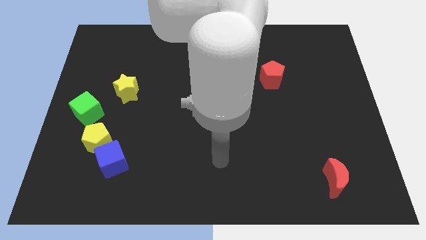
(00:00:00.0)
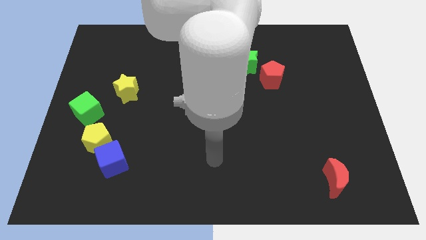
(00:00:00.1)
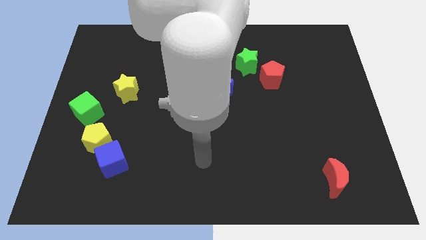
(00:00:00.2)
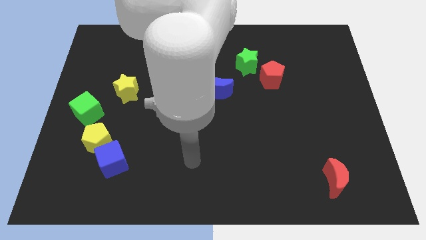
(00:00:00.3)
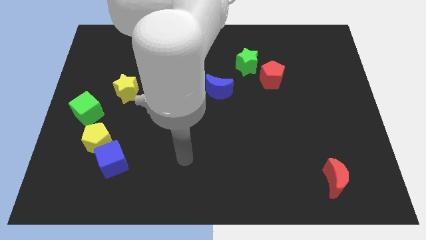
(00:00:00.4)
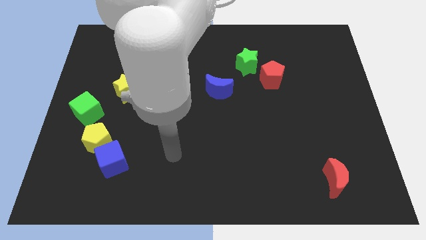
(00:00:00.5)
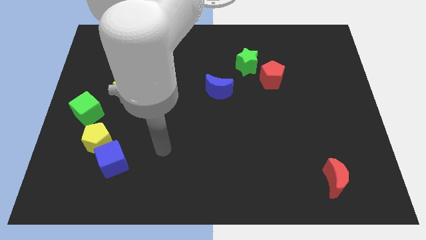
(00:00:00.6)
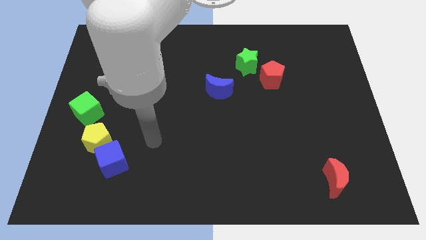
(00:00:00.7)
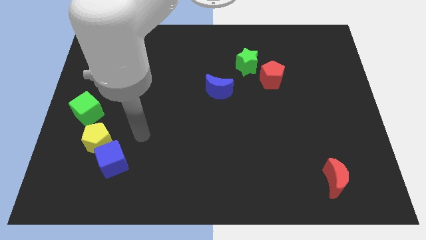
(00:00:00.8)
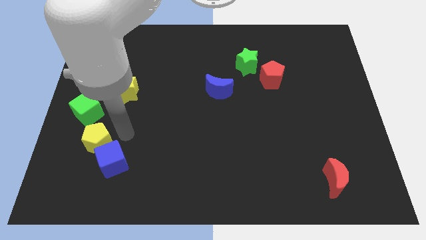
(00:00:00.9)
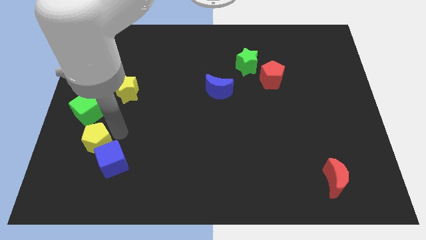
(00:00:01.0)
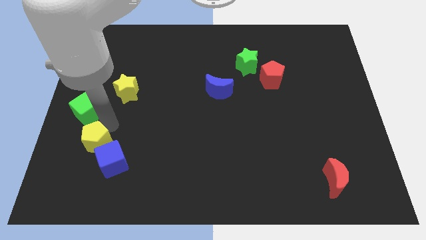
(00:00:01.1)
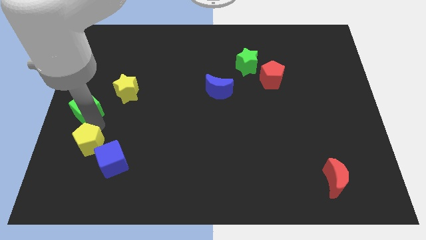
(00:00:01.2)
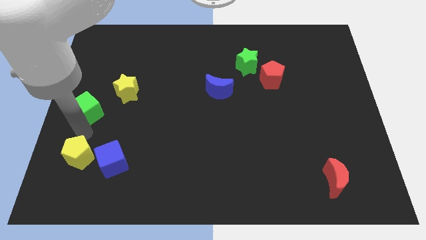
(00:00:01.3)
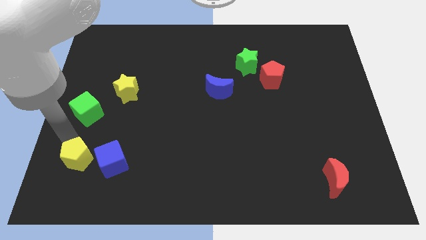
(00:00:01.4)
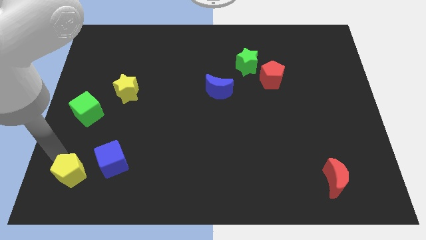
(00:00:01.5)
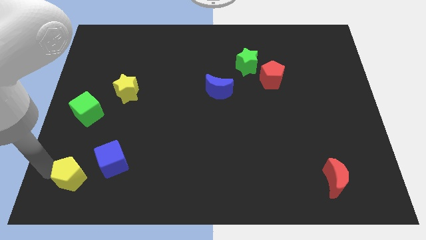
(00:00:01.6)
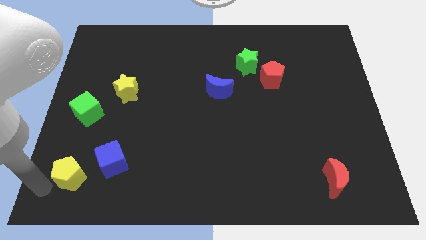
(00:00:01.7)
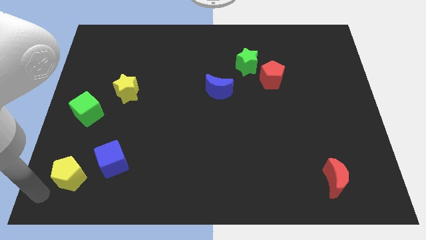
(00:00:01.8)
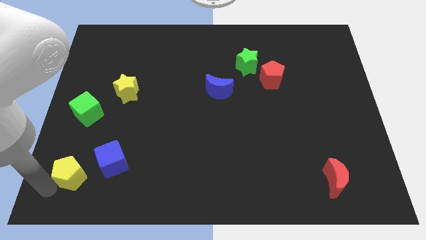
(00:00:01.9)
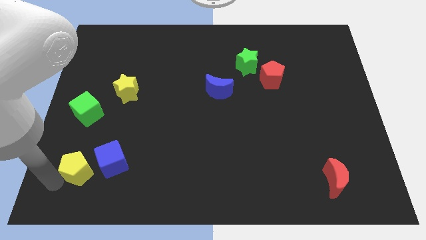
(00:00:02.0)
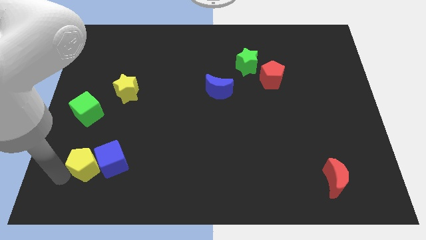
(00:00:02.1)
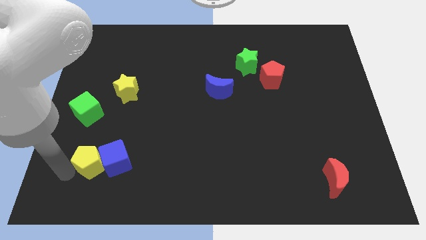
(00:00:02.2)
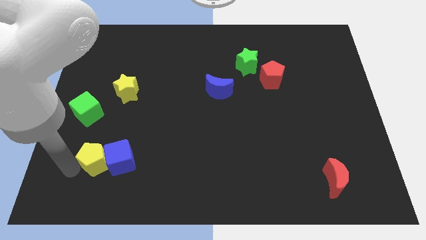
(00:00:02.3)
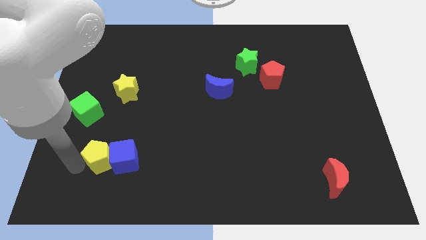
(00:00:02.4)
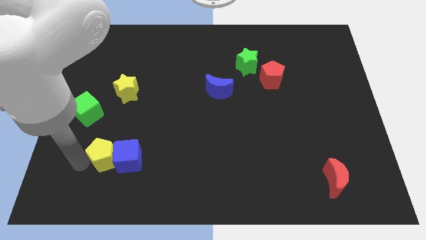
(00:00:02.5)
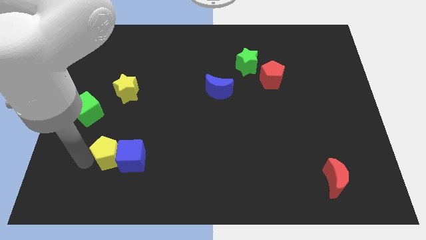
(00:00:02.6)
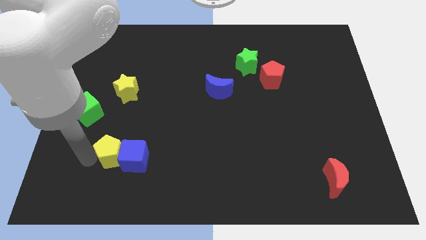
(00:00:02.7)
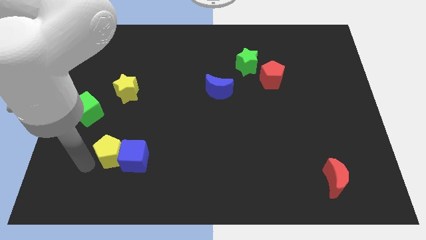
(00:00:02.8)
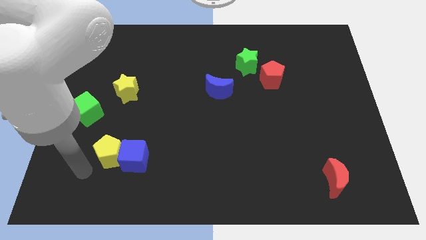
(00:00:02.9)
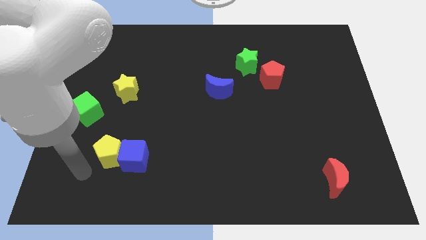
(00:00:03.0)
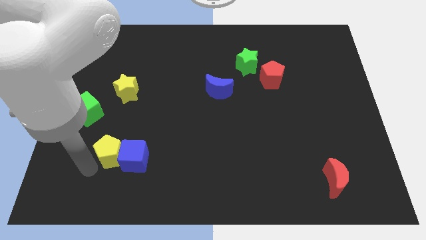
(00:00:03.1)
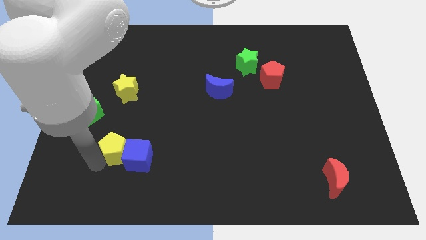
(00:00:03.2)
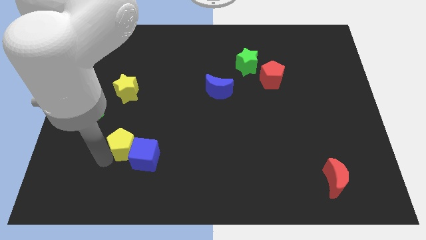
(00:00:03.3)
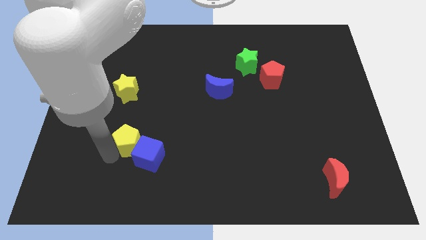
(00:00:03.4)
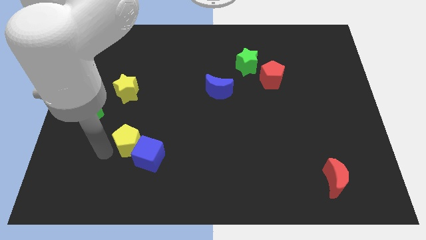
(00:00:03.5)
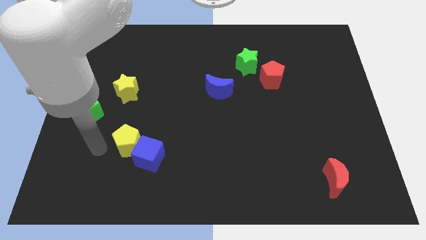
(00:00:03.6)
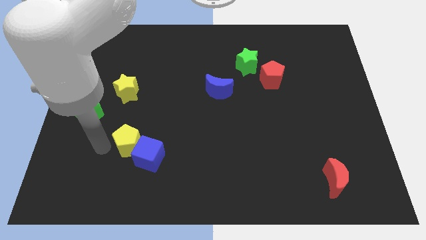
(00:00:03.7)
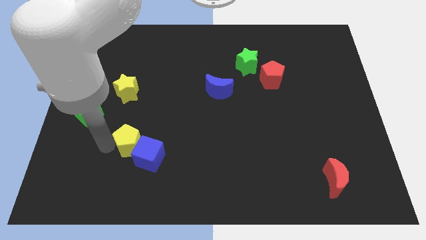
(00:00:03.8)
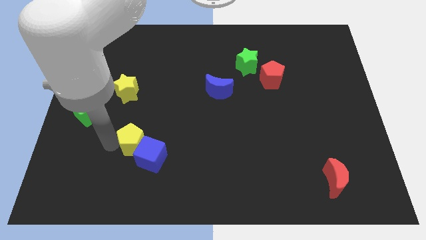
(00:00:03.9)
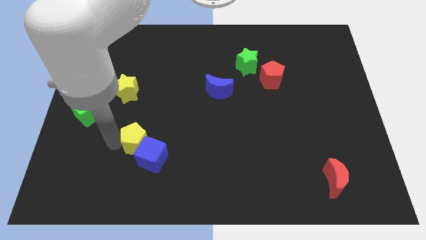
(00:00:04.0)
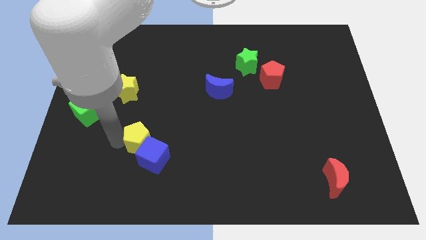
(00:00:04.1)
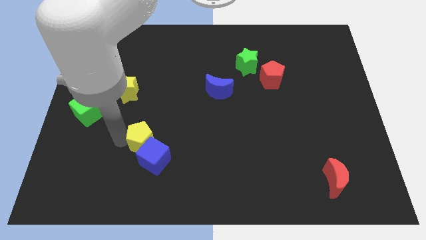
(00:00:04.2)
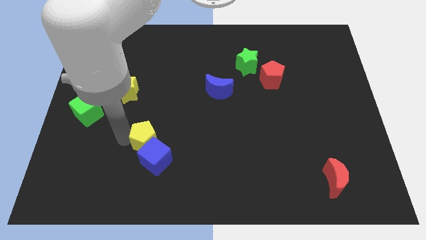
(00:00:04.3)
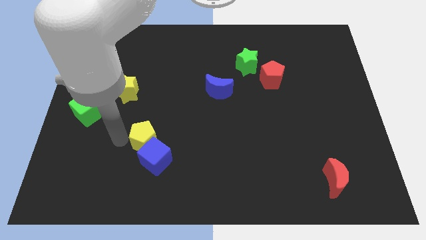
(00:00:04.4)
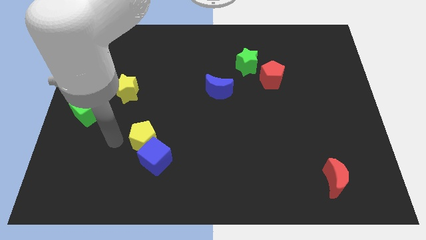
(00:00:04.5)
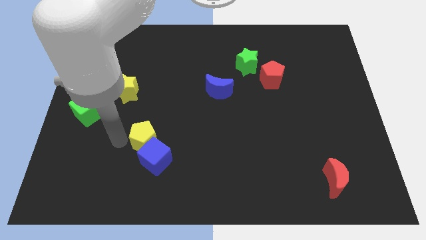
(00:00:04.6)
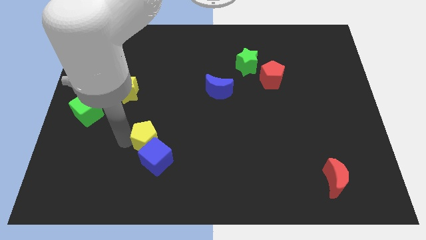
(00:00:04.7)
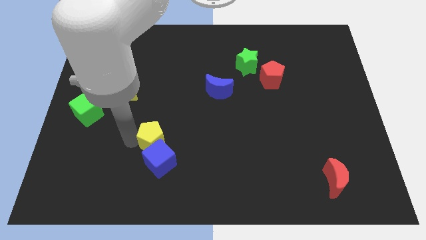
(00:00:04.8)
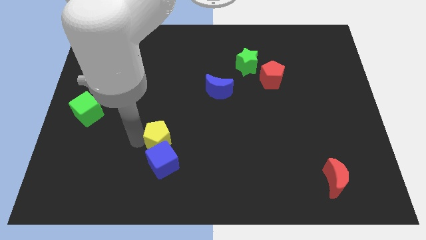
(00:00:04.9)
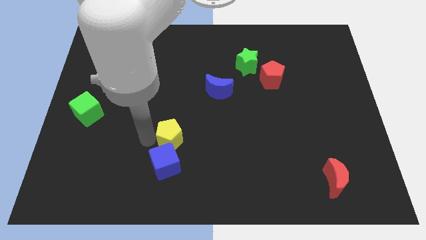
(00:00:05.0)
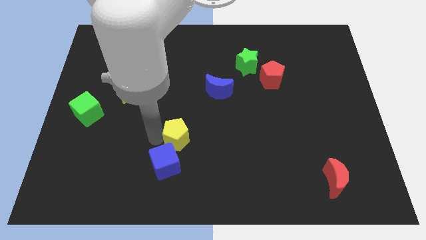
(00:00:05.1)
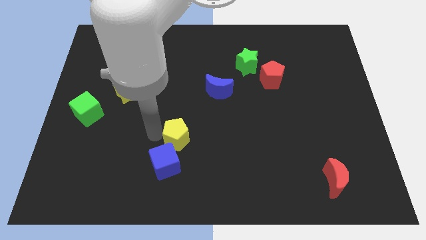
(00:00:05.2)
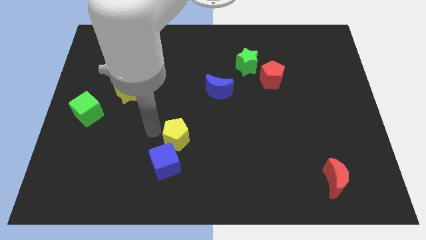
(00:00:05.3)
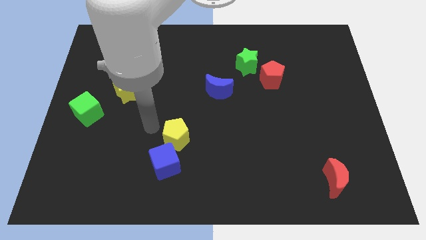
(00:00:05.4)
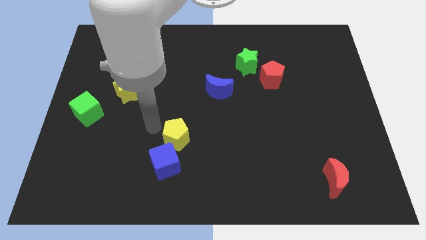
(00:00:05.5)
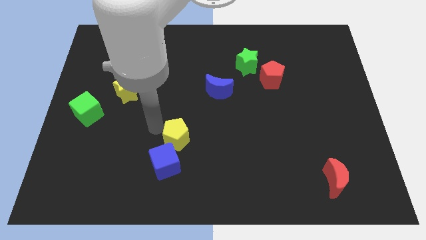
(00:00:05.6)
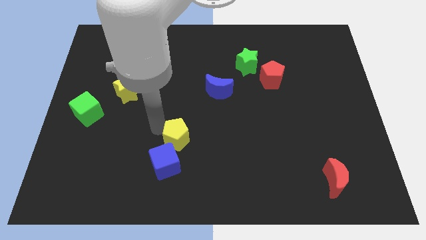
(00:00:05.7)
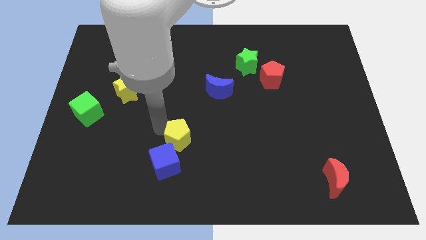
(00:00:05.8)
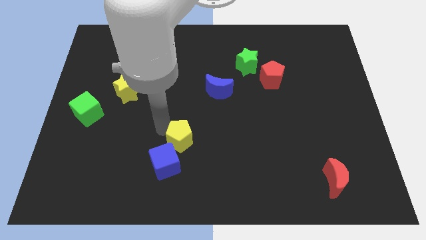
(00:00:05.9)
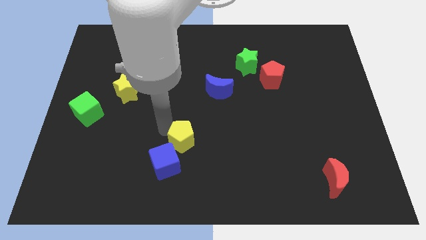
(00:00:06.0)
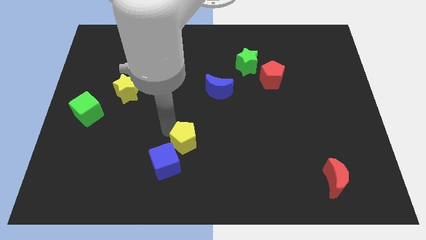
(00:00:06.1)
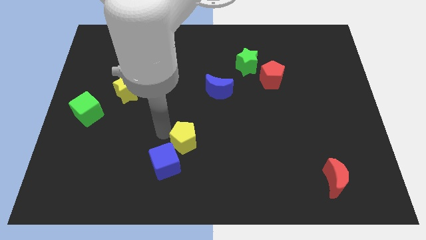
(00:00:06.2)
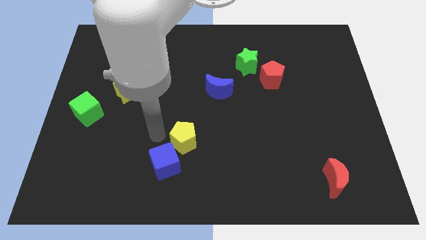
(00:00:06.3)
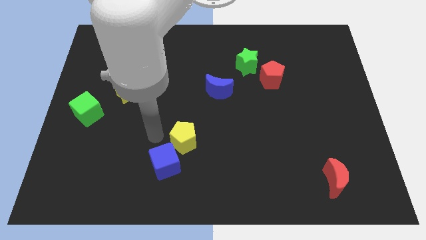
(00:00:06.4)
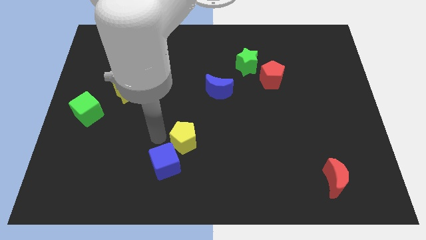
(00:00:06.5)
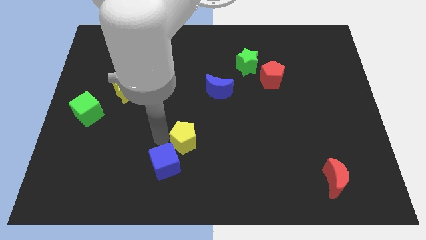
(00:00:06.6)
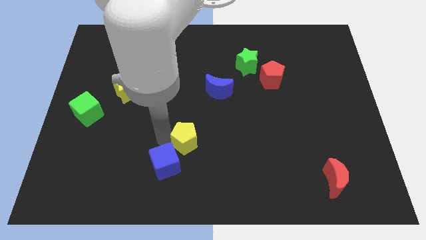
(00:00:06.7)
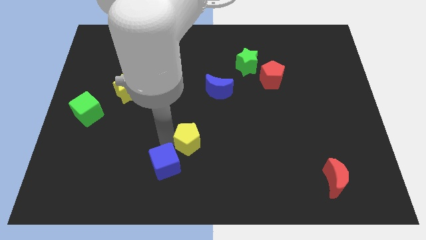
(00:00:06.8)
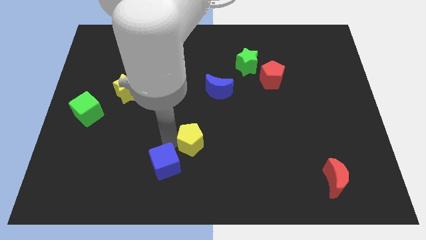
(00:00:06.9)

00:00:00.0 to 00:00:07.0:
slide the yellow pentagon to the right

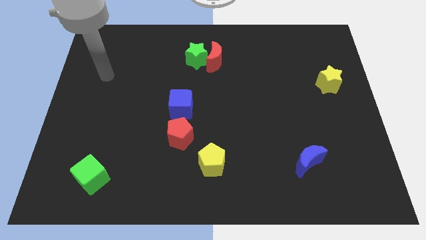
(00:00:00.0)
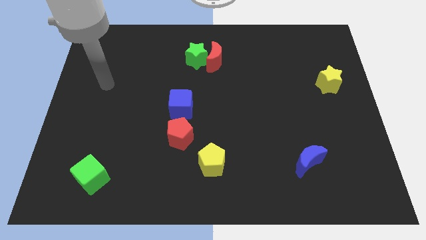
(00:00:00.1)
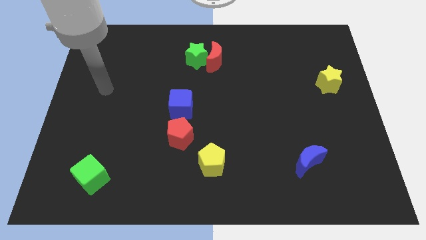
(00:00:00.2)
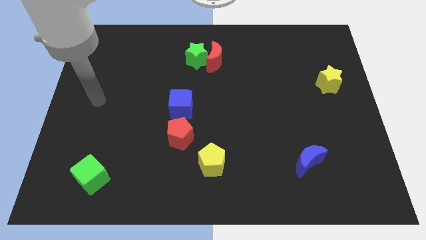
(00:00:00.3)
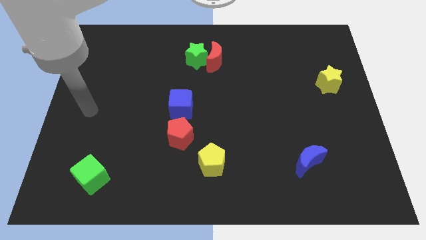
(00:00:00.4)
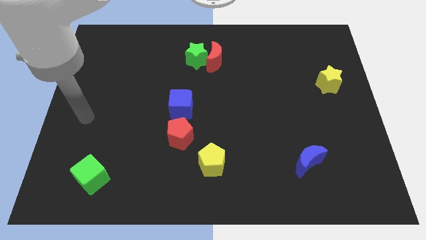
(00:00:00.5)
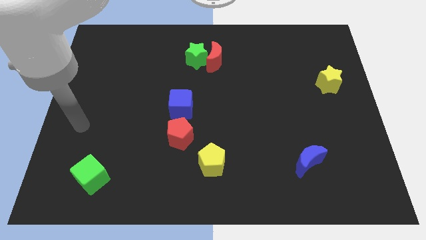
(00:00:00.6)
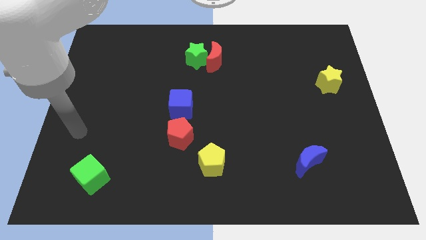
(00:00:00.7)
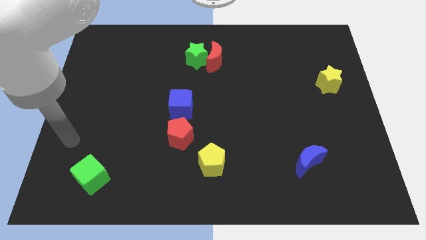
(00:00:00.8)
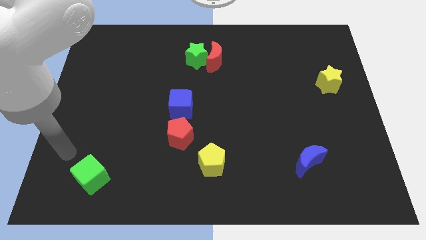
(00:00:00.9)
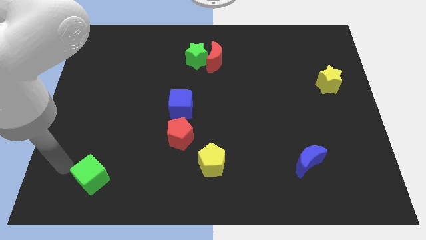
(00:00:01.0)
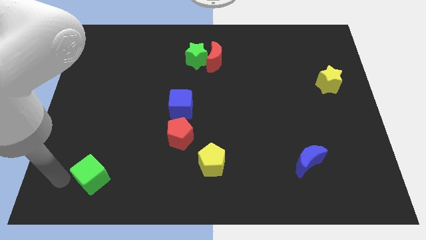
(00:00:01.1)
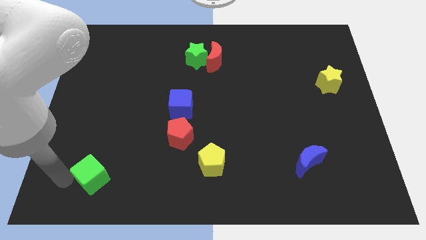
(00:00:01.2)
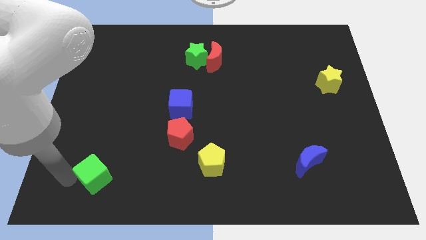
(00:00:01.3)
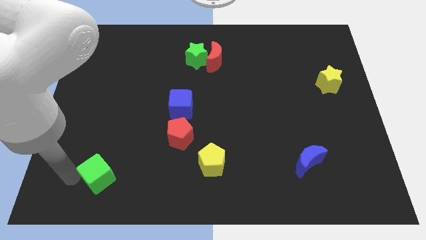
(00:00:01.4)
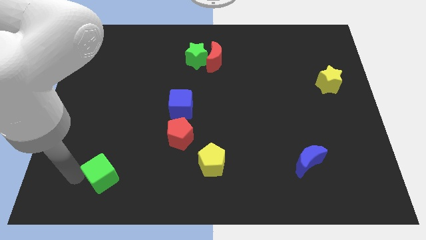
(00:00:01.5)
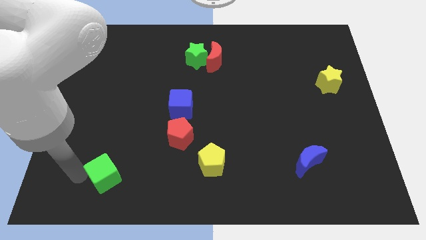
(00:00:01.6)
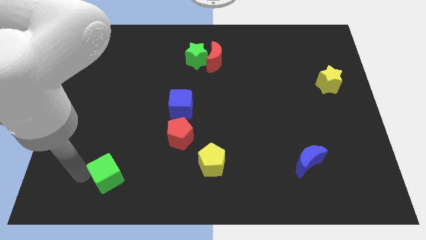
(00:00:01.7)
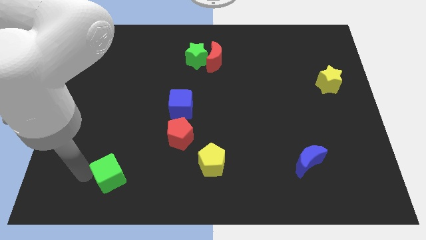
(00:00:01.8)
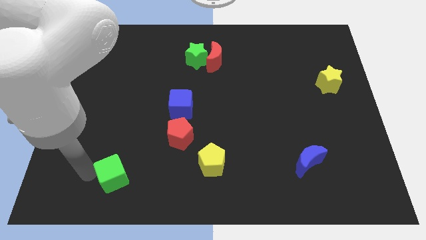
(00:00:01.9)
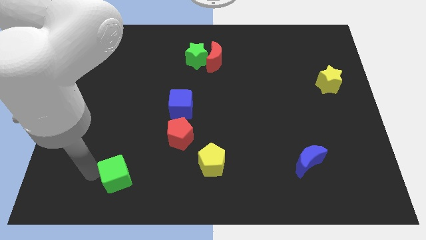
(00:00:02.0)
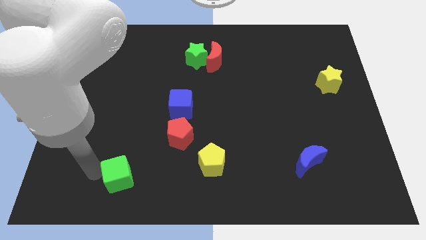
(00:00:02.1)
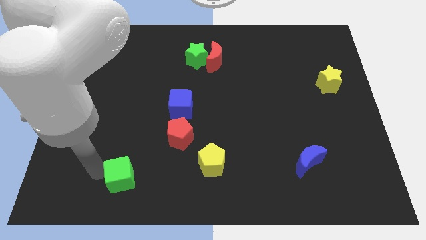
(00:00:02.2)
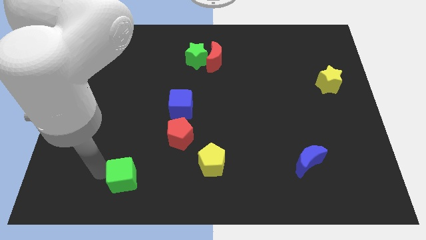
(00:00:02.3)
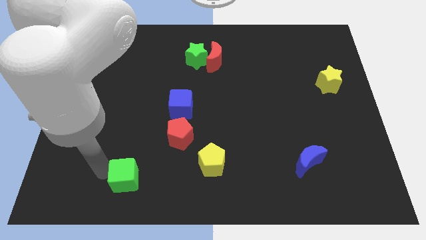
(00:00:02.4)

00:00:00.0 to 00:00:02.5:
move the green cube right a little bit
